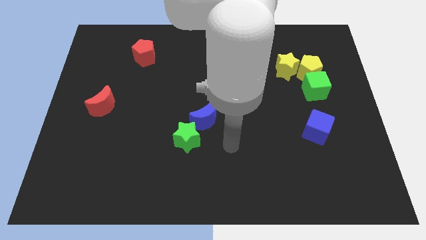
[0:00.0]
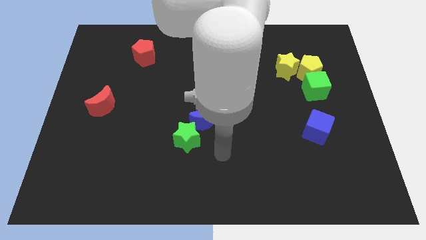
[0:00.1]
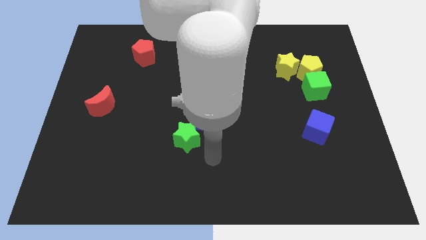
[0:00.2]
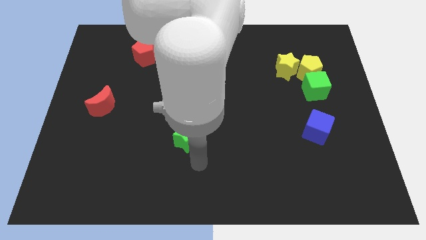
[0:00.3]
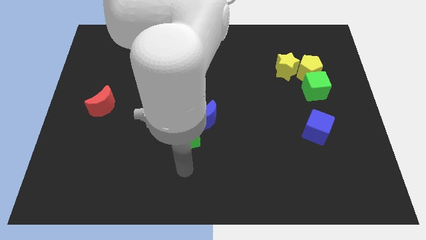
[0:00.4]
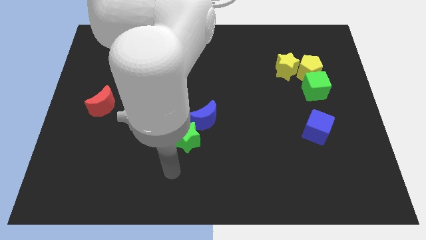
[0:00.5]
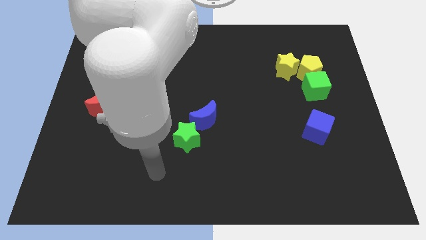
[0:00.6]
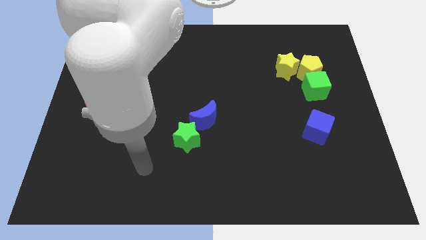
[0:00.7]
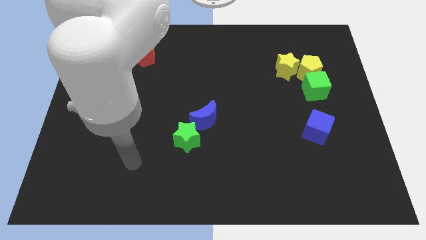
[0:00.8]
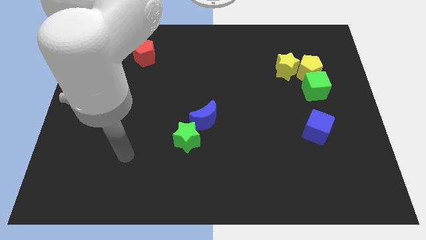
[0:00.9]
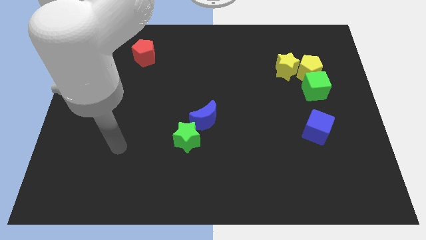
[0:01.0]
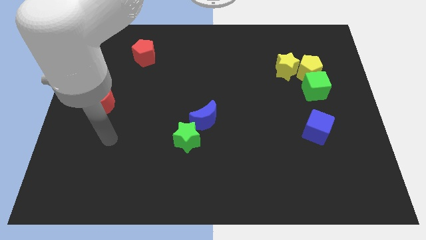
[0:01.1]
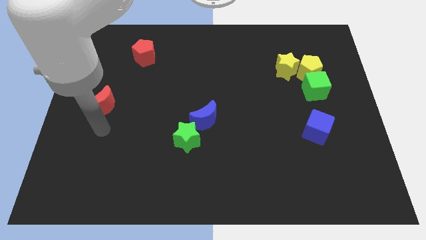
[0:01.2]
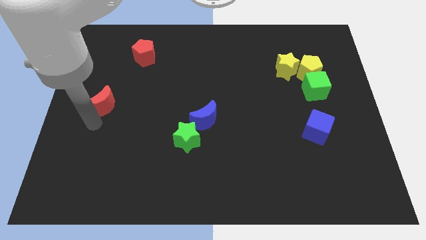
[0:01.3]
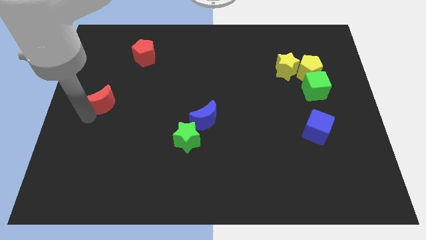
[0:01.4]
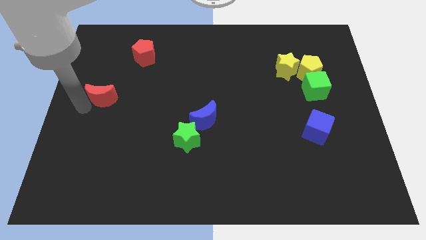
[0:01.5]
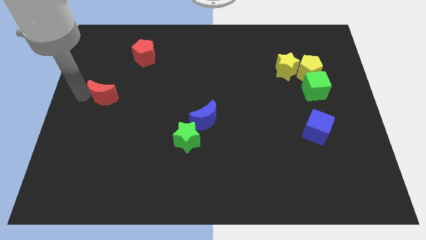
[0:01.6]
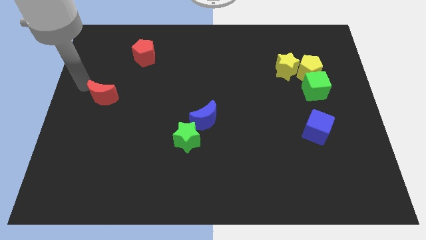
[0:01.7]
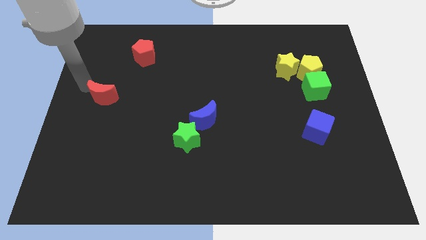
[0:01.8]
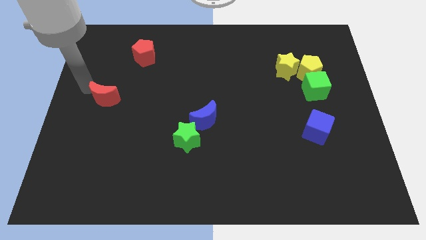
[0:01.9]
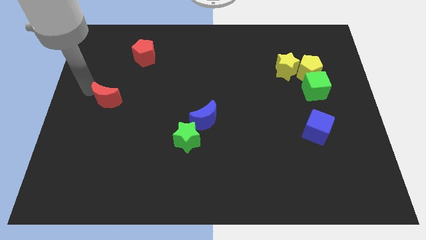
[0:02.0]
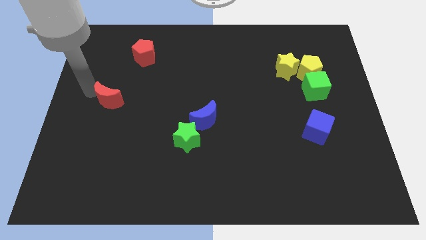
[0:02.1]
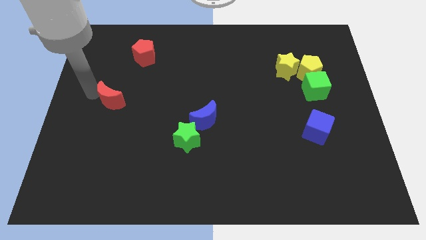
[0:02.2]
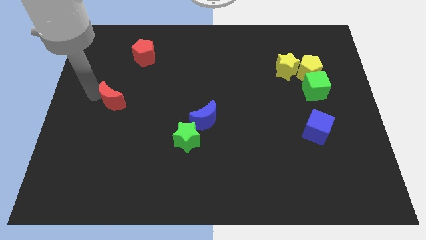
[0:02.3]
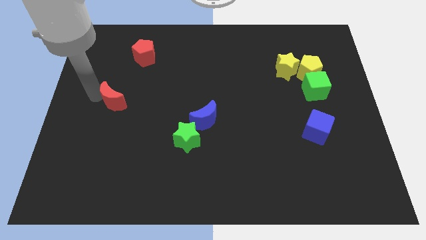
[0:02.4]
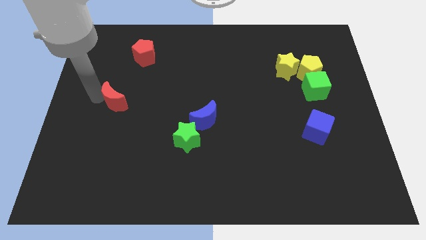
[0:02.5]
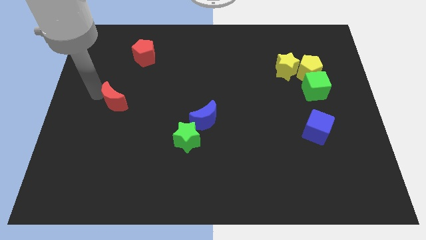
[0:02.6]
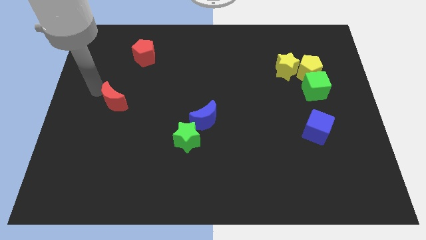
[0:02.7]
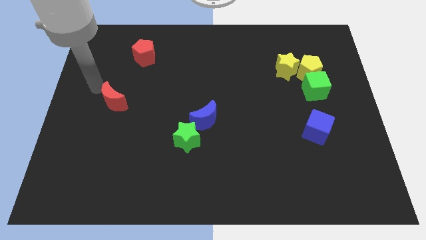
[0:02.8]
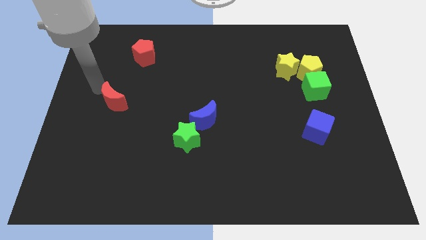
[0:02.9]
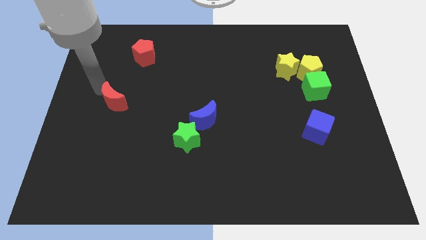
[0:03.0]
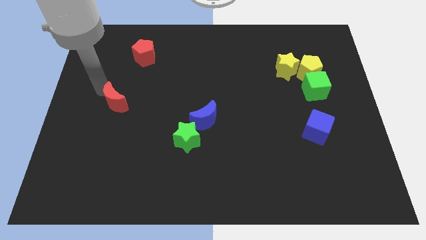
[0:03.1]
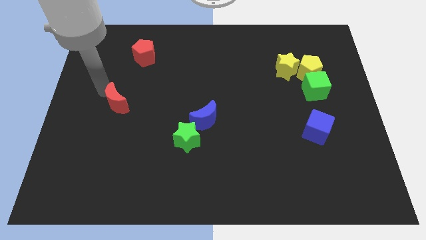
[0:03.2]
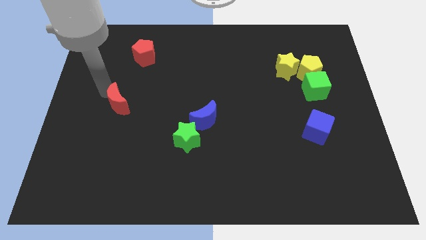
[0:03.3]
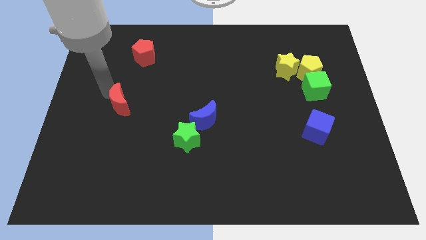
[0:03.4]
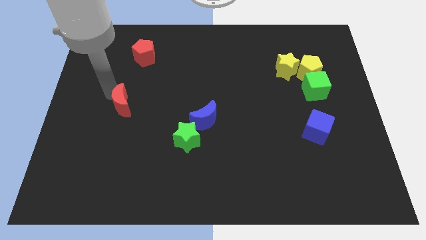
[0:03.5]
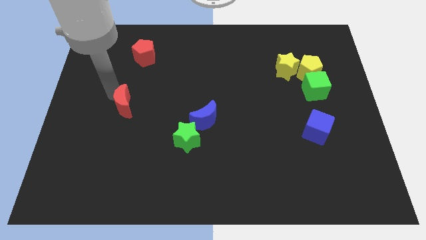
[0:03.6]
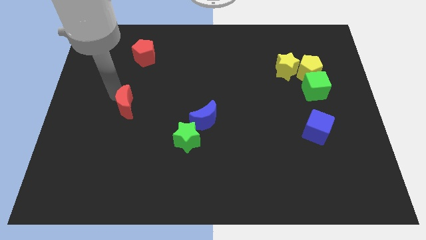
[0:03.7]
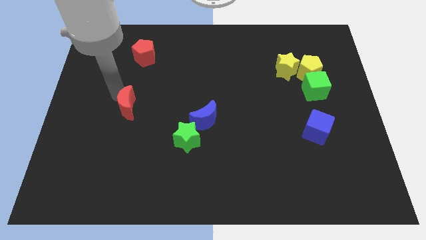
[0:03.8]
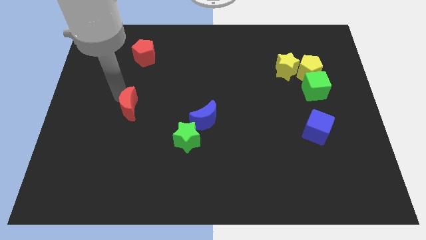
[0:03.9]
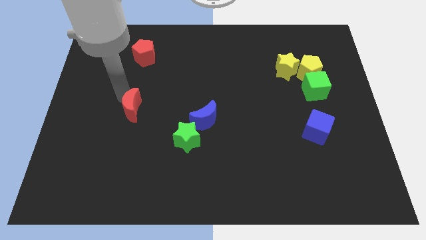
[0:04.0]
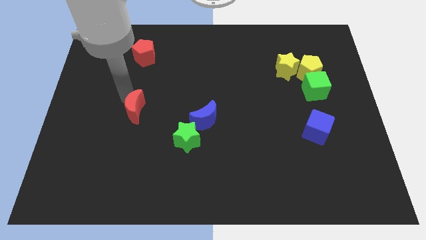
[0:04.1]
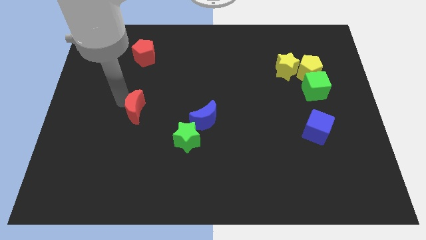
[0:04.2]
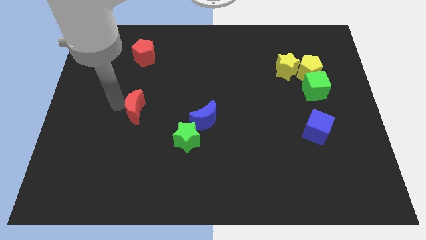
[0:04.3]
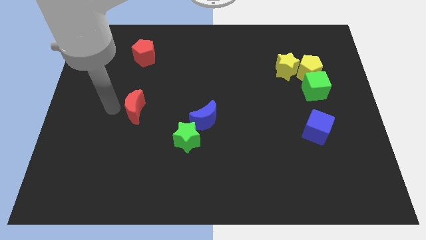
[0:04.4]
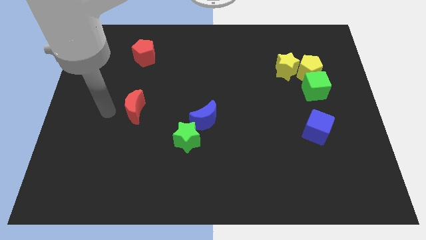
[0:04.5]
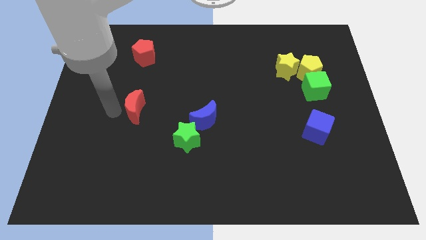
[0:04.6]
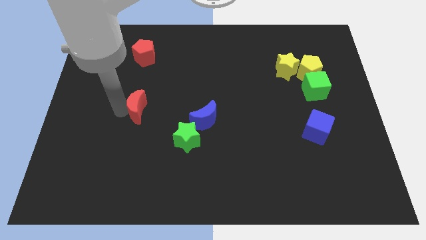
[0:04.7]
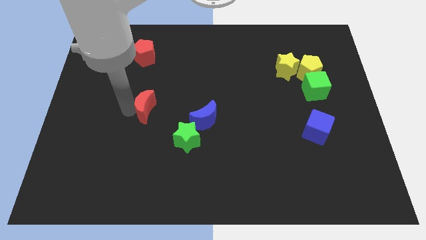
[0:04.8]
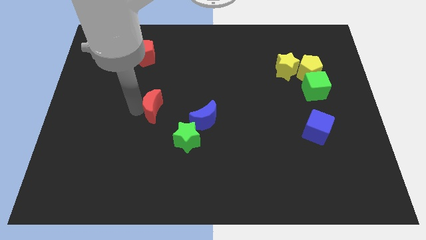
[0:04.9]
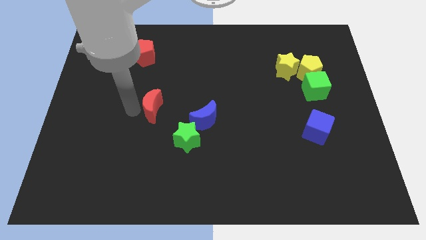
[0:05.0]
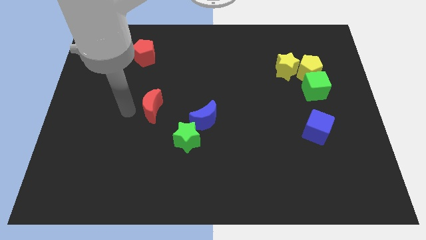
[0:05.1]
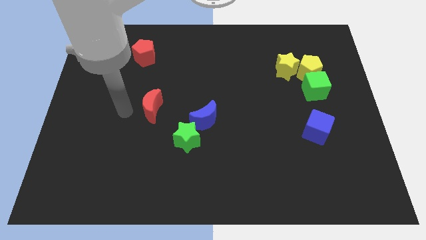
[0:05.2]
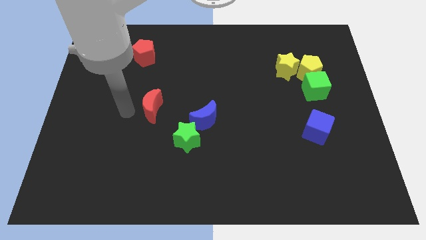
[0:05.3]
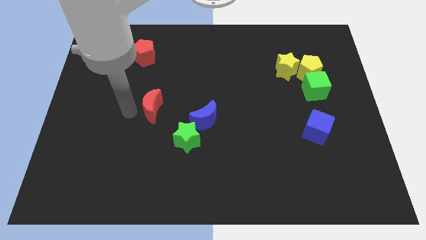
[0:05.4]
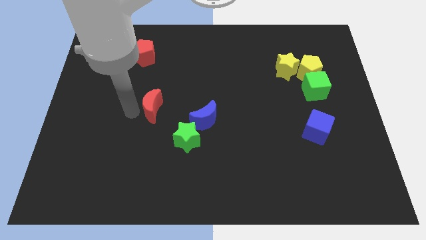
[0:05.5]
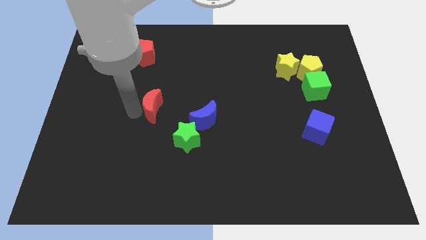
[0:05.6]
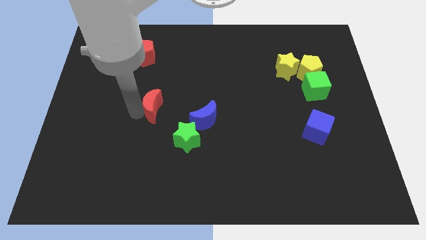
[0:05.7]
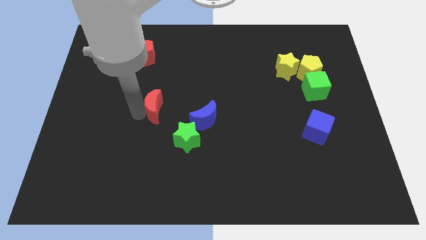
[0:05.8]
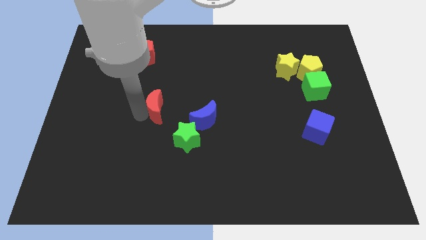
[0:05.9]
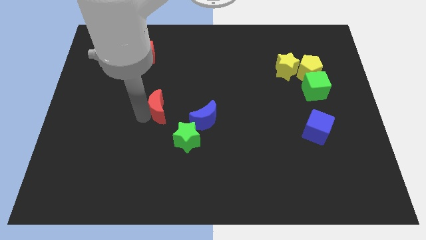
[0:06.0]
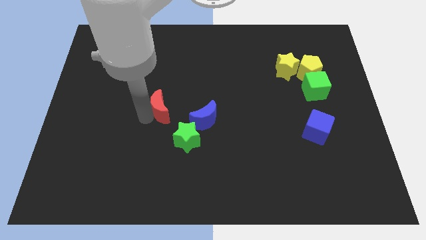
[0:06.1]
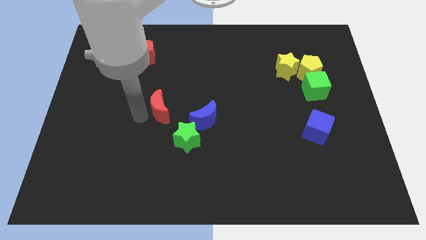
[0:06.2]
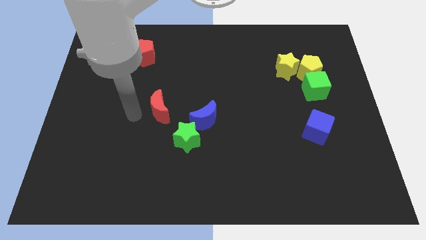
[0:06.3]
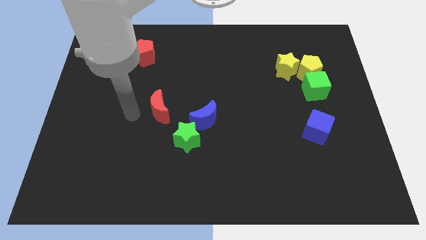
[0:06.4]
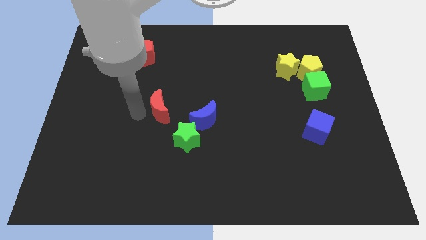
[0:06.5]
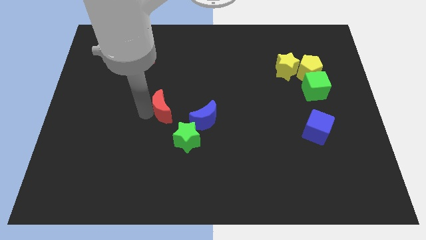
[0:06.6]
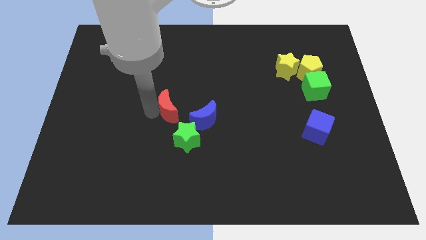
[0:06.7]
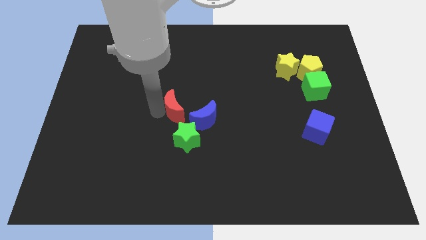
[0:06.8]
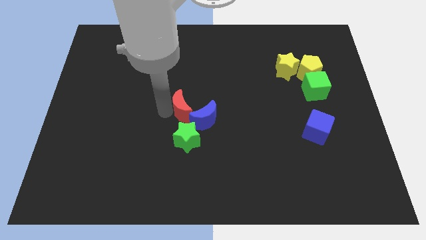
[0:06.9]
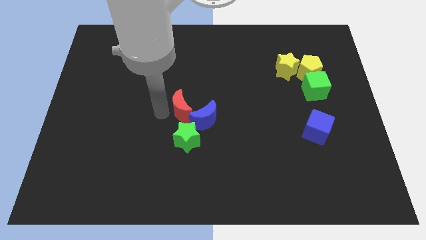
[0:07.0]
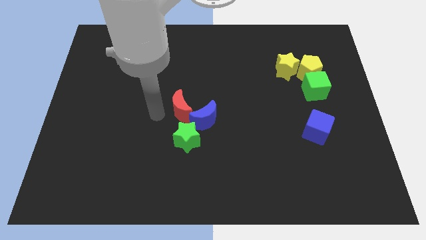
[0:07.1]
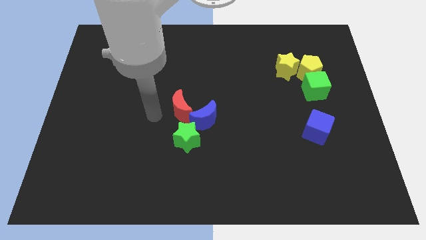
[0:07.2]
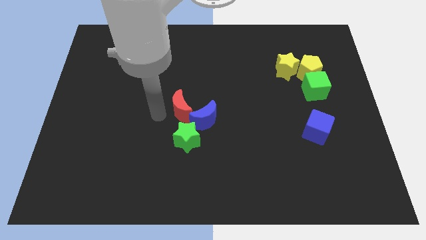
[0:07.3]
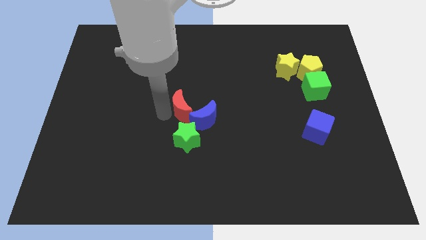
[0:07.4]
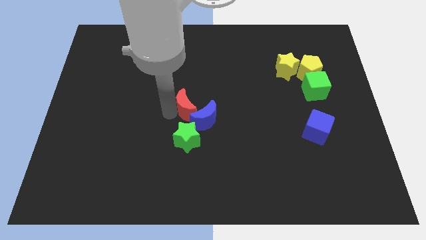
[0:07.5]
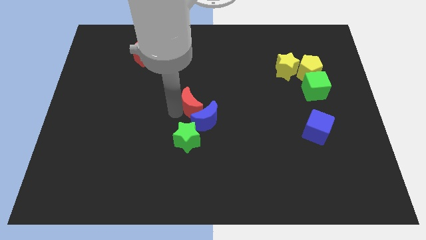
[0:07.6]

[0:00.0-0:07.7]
move the red moon right
